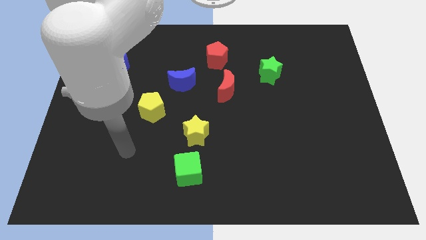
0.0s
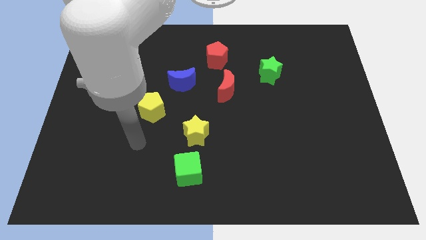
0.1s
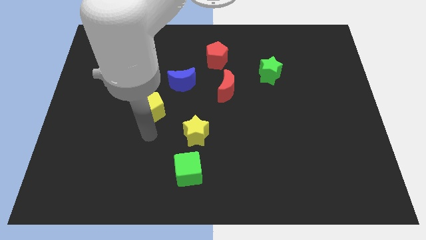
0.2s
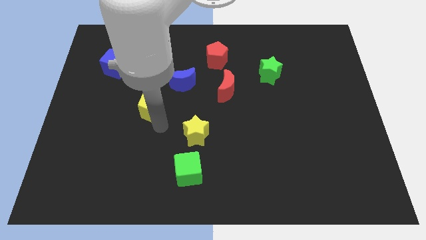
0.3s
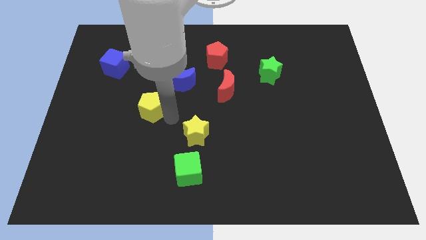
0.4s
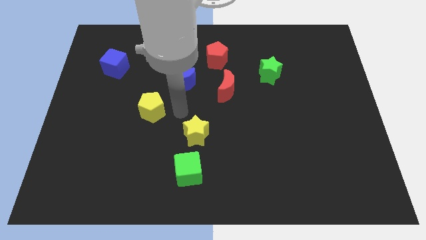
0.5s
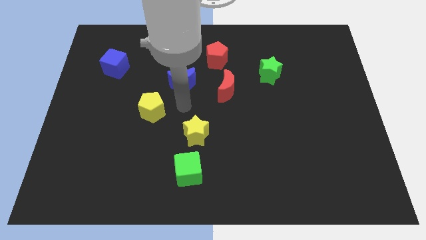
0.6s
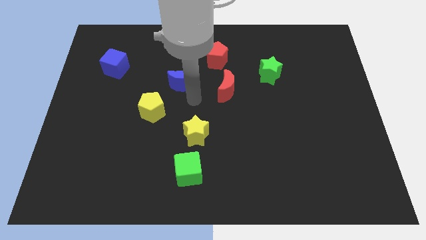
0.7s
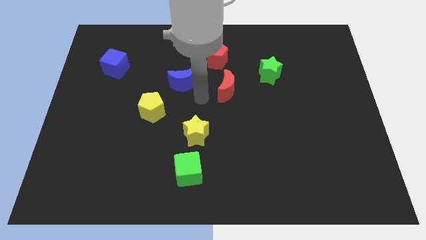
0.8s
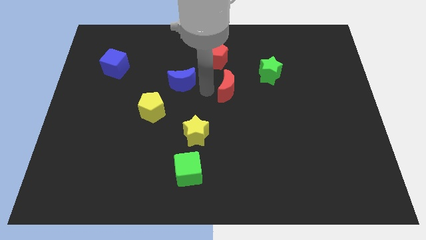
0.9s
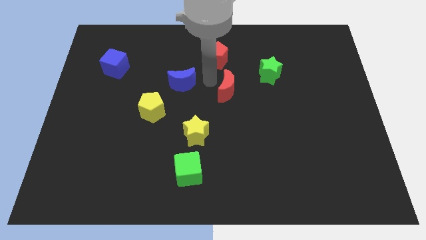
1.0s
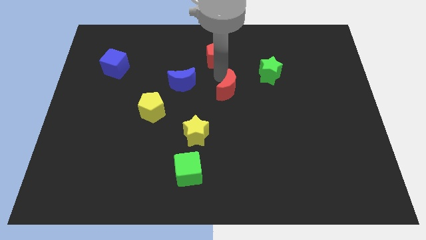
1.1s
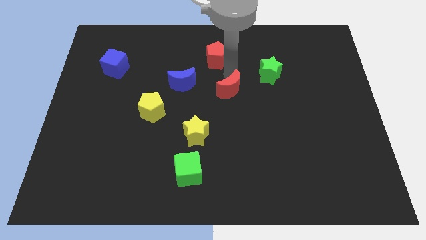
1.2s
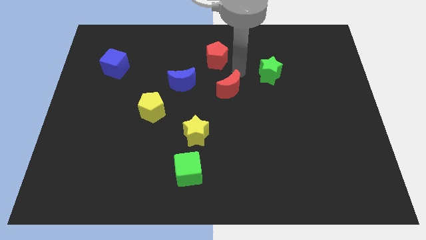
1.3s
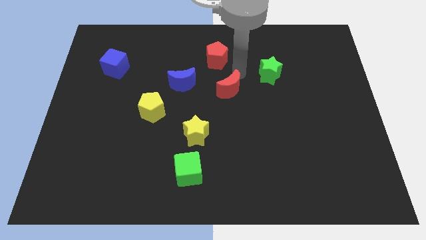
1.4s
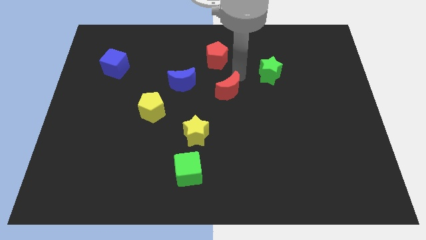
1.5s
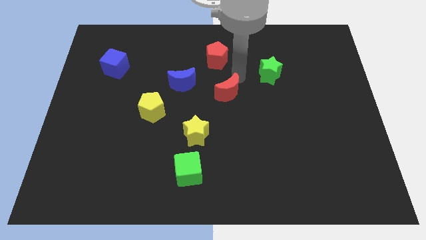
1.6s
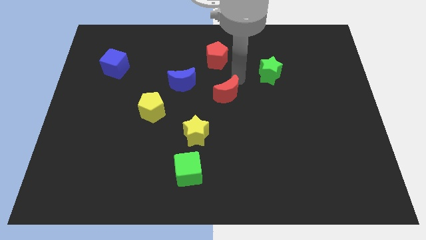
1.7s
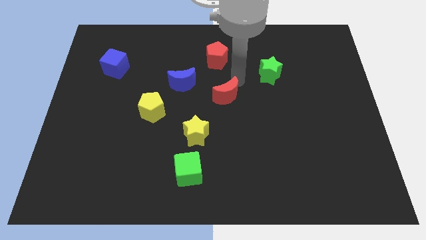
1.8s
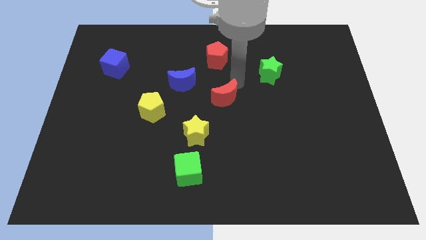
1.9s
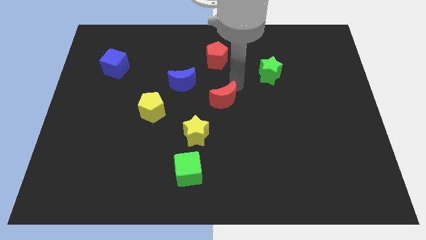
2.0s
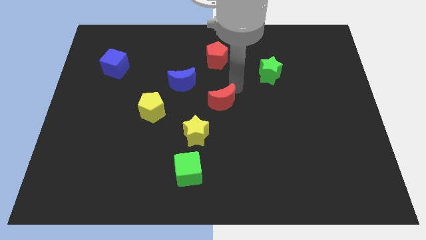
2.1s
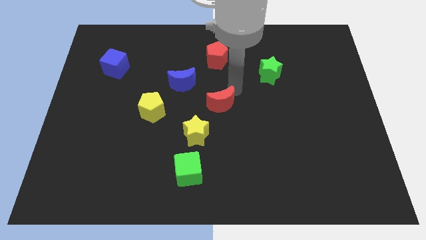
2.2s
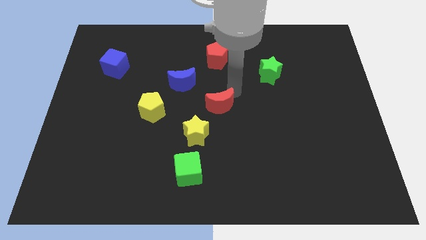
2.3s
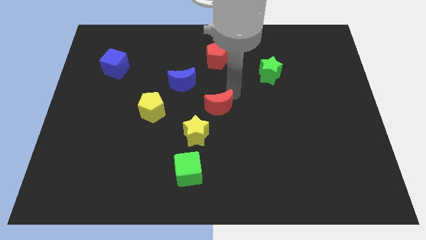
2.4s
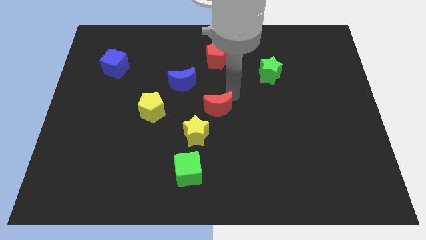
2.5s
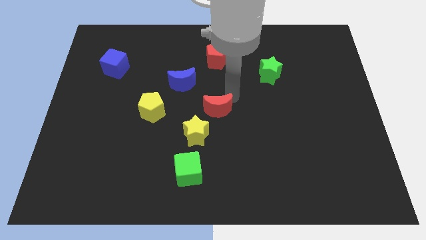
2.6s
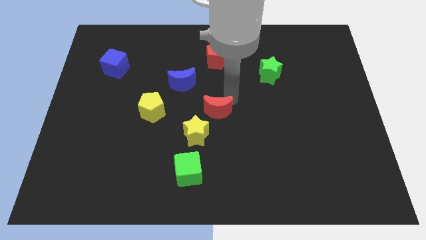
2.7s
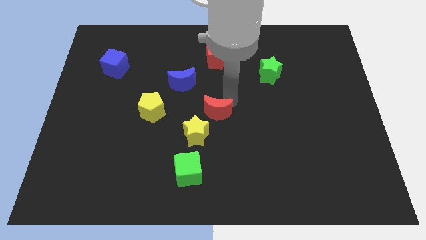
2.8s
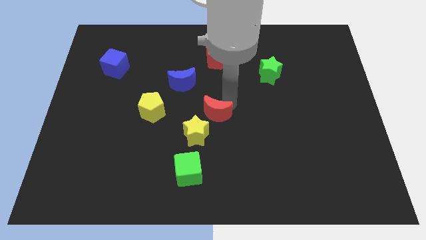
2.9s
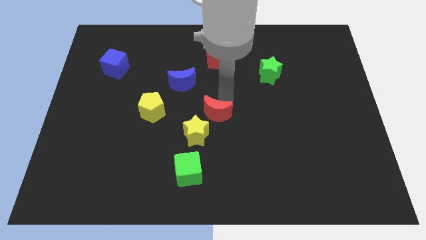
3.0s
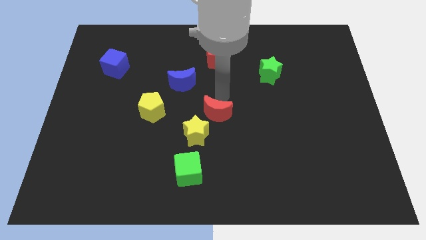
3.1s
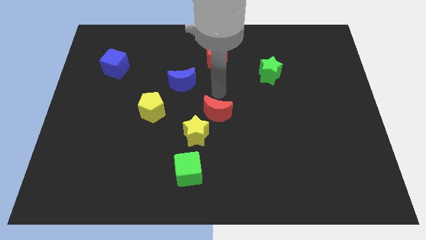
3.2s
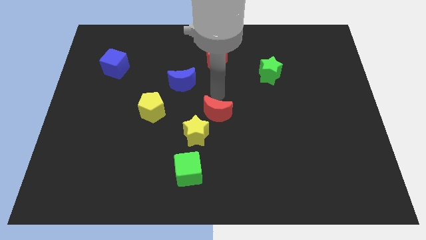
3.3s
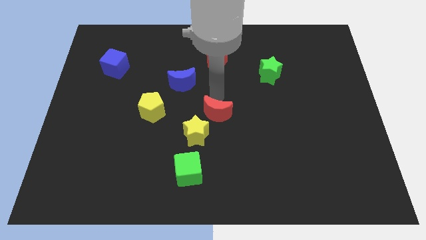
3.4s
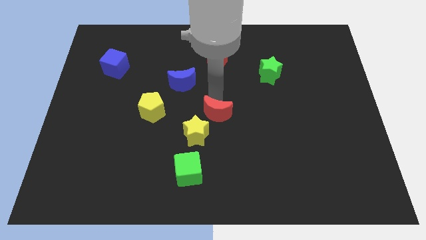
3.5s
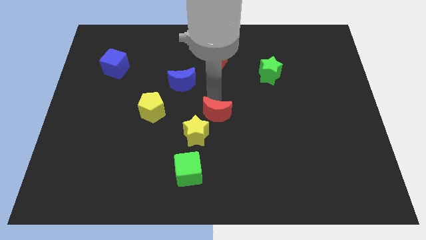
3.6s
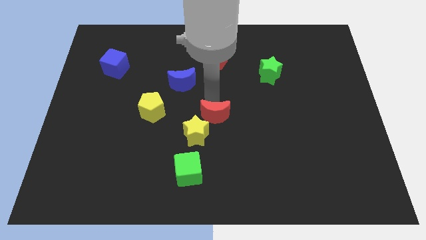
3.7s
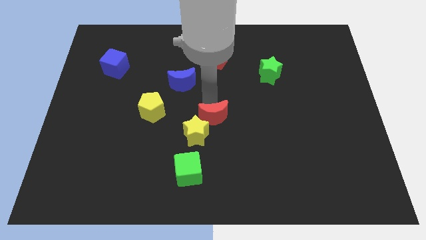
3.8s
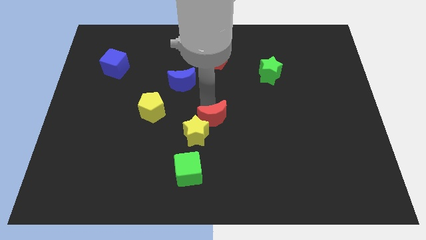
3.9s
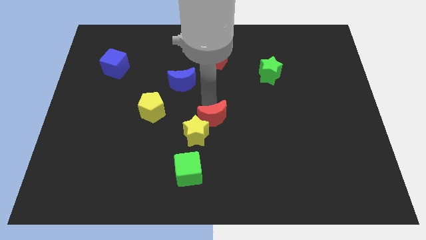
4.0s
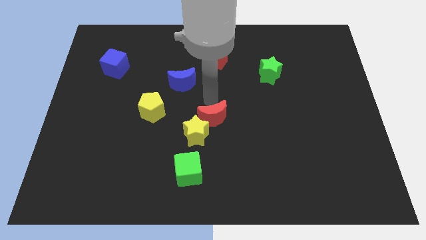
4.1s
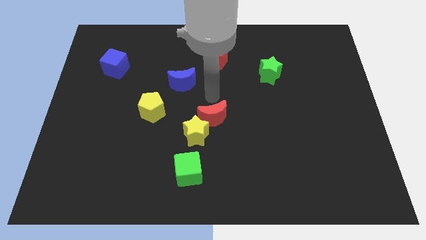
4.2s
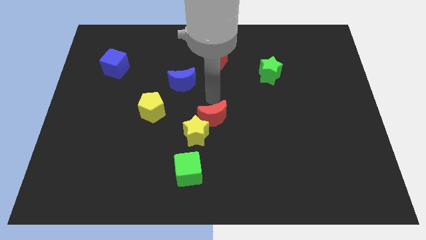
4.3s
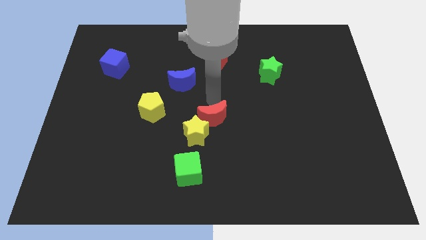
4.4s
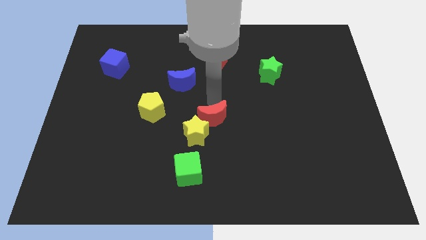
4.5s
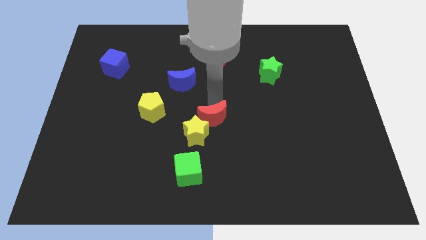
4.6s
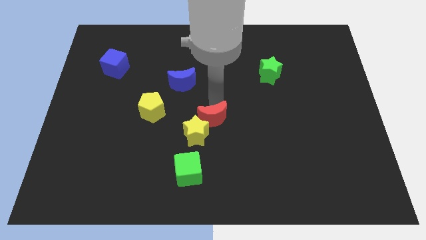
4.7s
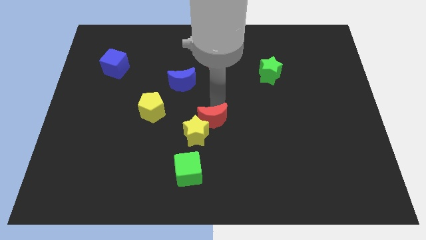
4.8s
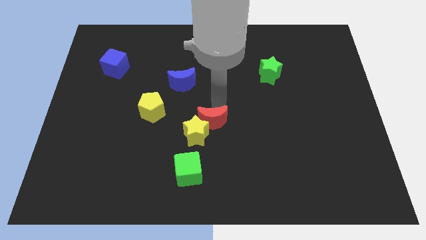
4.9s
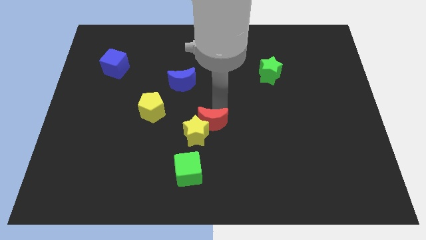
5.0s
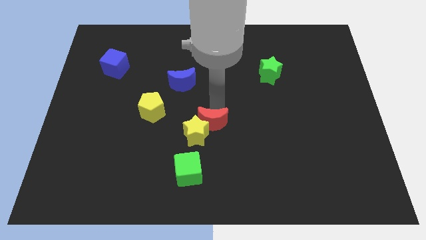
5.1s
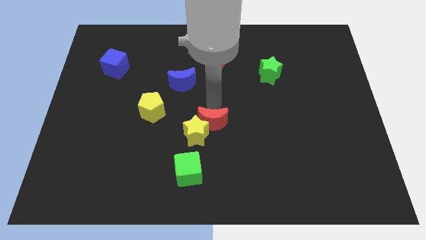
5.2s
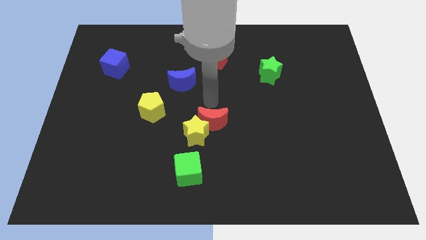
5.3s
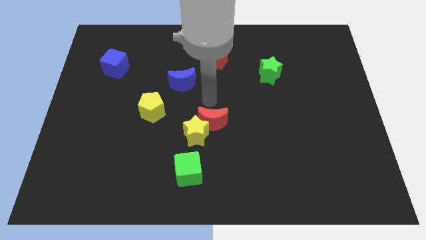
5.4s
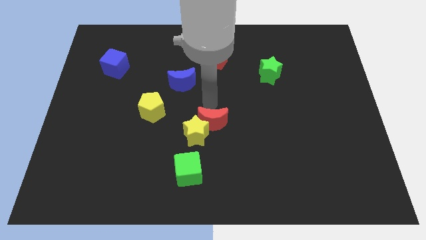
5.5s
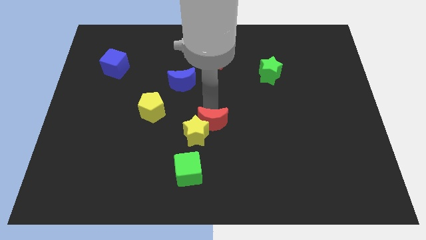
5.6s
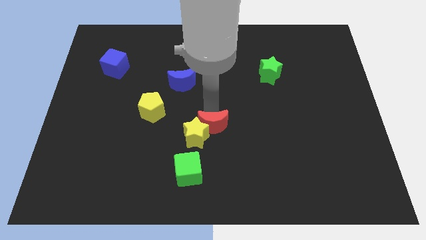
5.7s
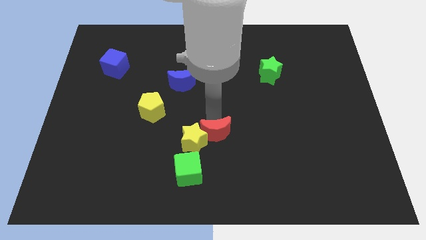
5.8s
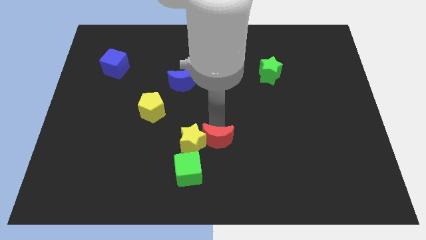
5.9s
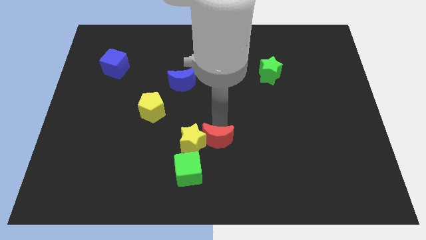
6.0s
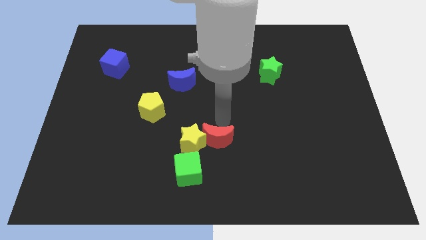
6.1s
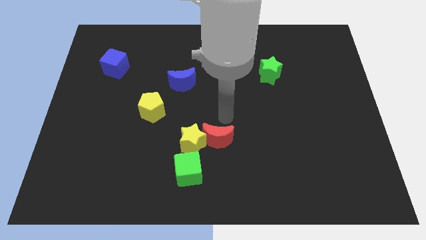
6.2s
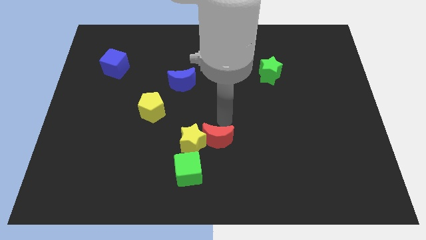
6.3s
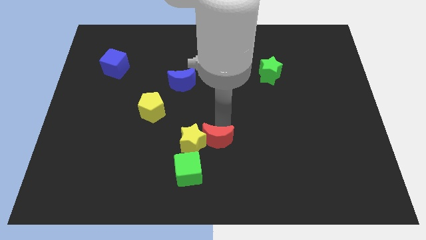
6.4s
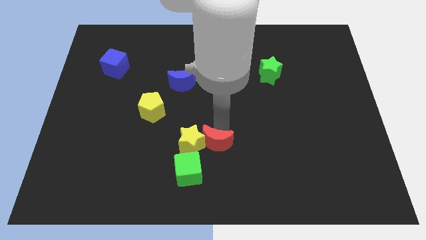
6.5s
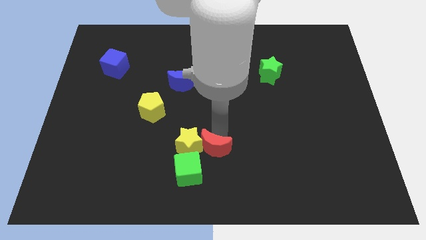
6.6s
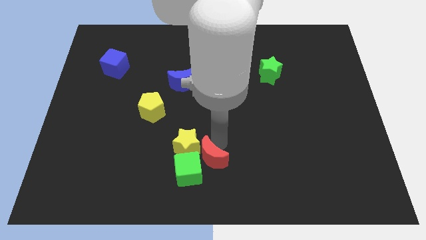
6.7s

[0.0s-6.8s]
move the red moon next to the green cube
